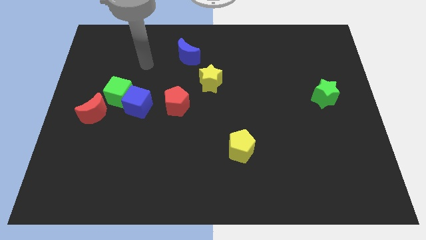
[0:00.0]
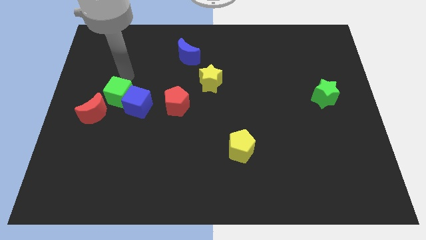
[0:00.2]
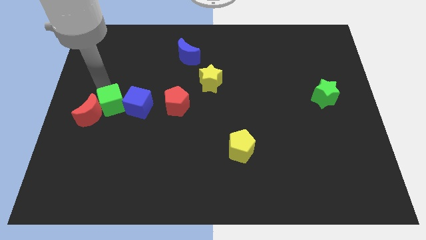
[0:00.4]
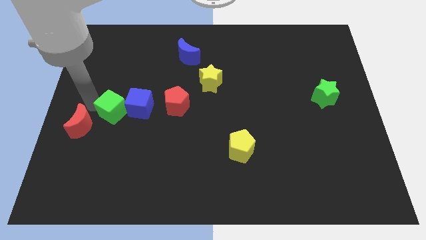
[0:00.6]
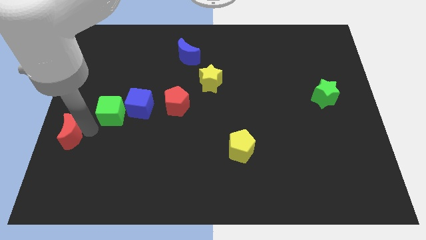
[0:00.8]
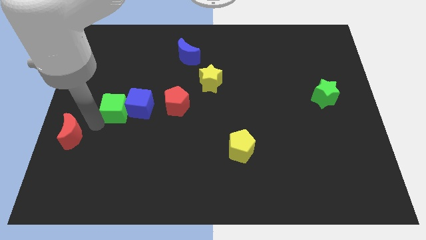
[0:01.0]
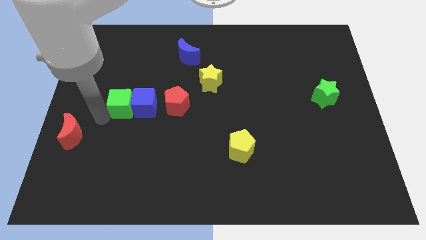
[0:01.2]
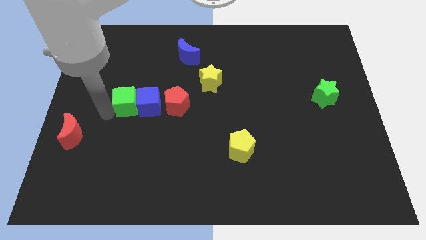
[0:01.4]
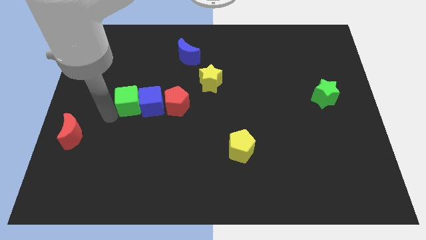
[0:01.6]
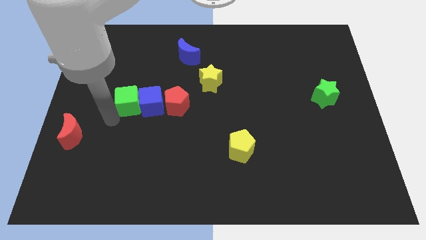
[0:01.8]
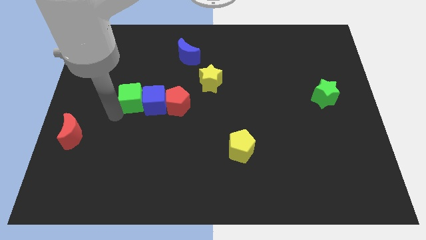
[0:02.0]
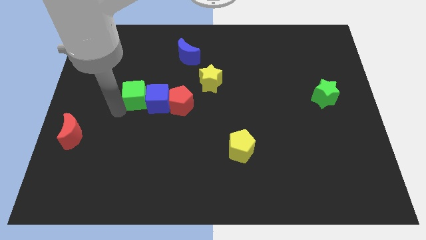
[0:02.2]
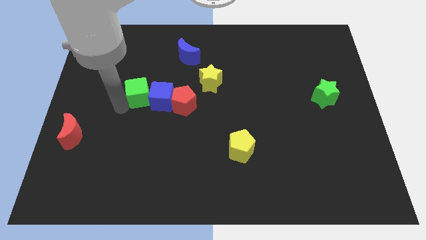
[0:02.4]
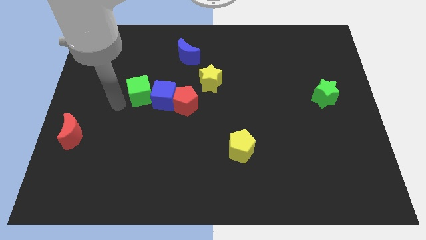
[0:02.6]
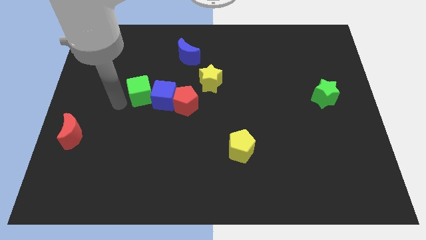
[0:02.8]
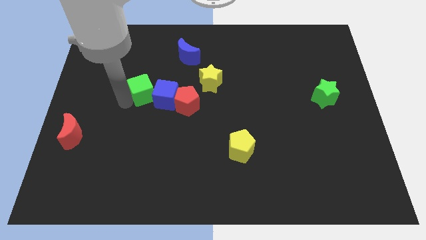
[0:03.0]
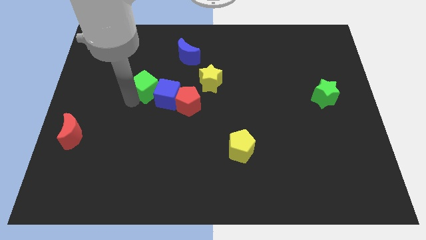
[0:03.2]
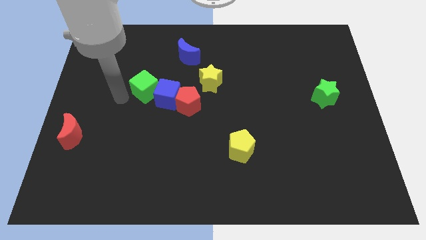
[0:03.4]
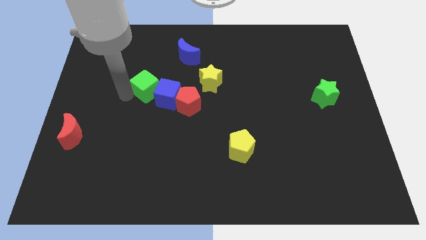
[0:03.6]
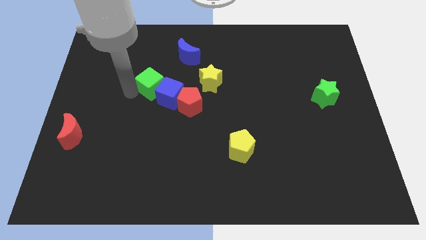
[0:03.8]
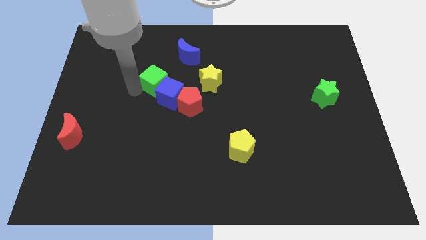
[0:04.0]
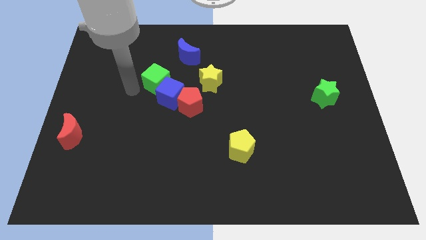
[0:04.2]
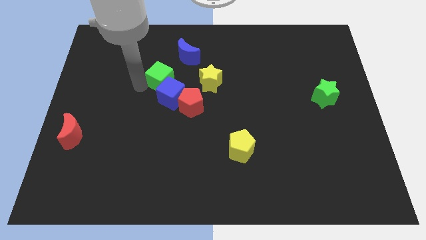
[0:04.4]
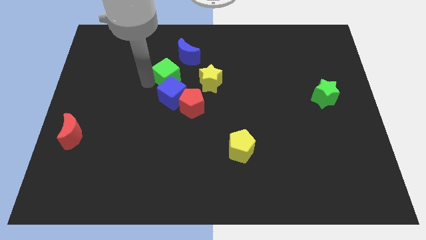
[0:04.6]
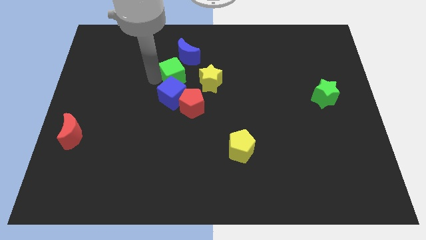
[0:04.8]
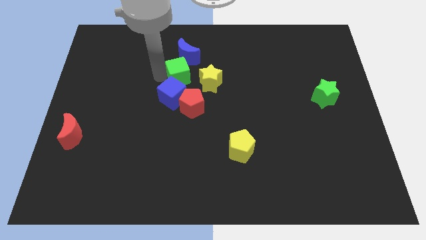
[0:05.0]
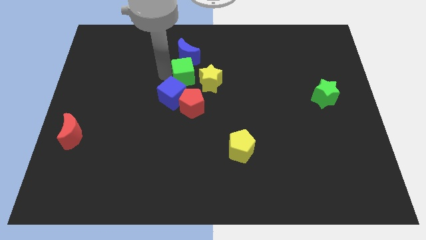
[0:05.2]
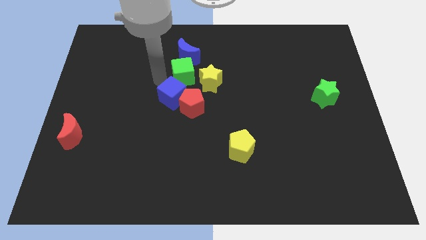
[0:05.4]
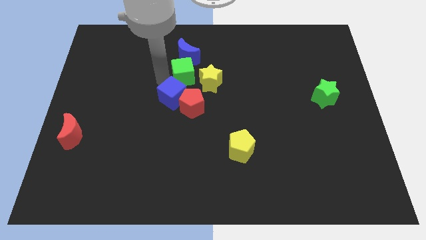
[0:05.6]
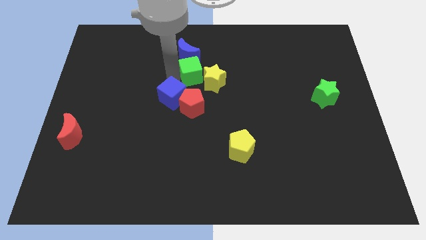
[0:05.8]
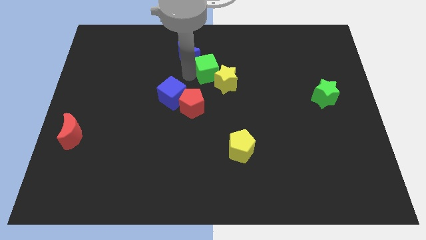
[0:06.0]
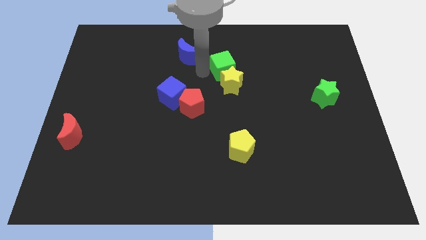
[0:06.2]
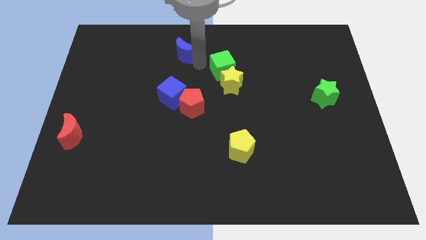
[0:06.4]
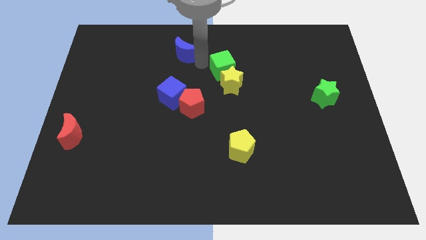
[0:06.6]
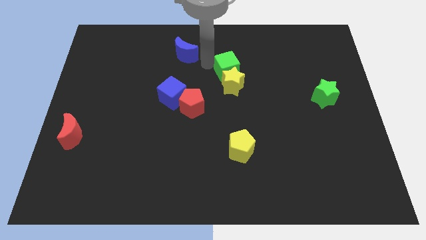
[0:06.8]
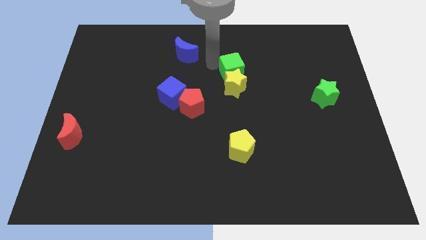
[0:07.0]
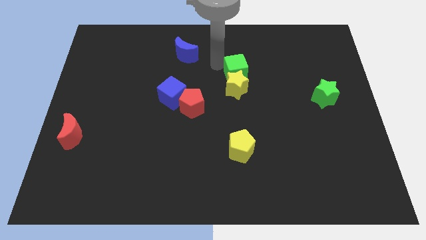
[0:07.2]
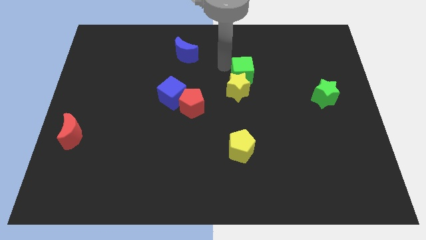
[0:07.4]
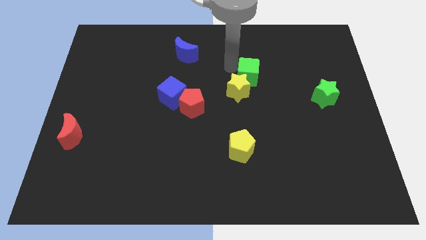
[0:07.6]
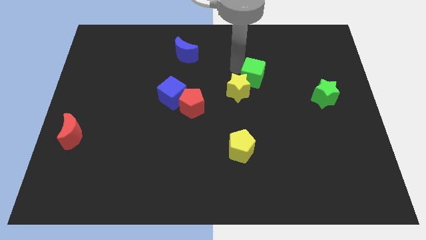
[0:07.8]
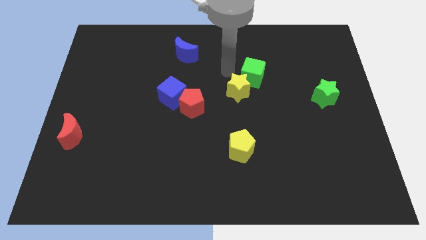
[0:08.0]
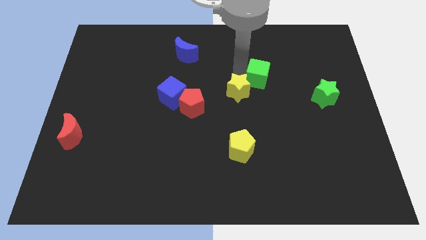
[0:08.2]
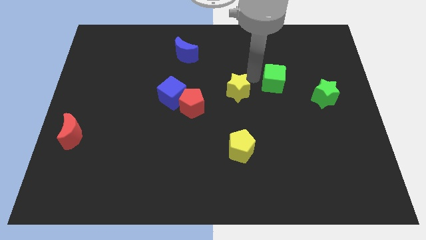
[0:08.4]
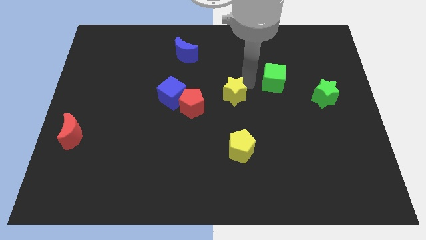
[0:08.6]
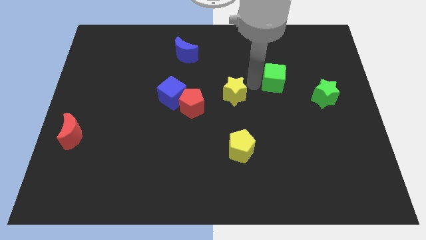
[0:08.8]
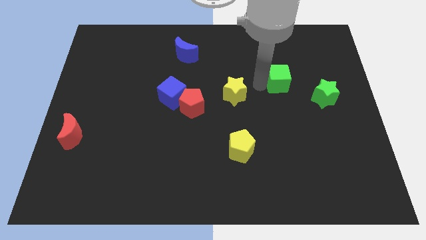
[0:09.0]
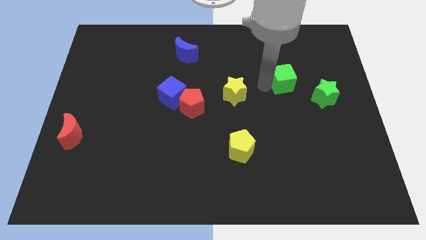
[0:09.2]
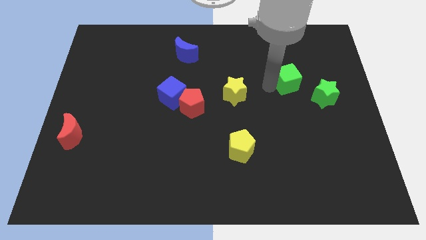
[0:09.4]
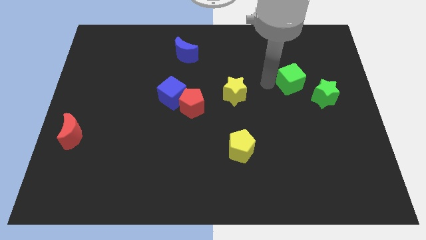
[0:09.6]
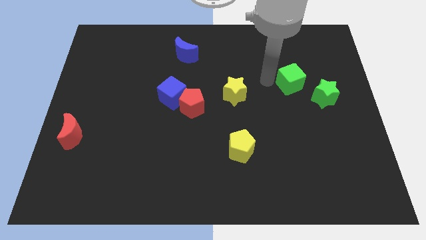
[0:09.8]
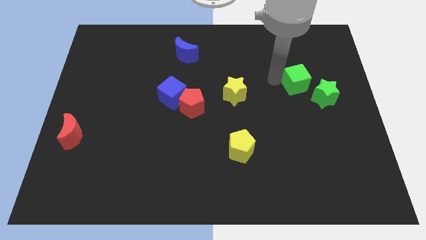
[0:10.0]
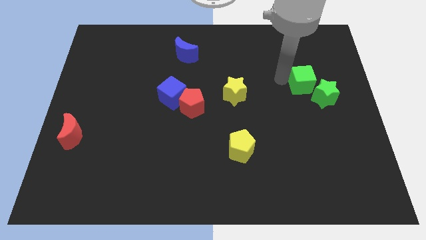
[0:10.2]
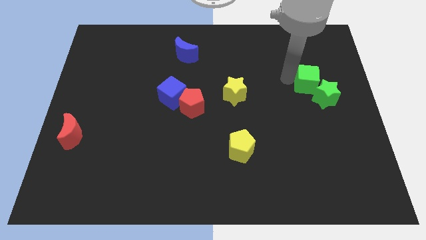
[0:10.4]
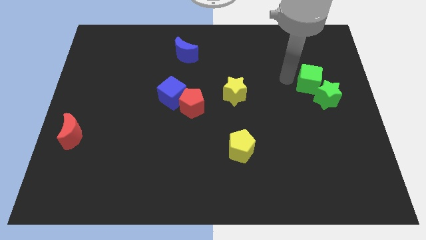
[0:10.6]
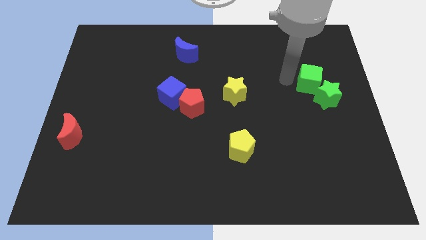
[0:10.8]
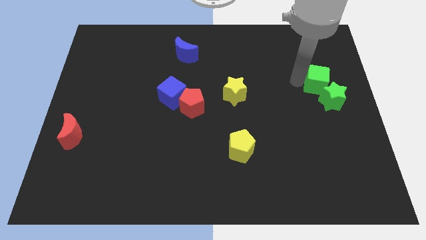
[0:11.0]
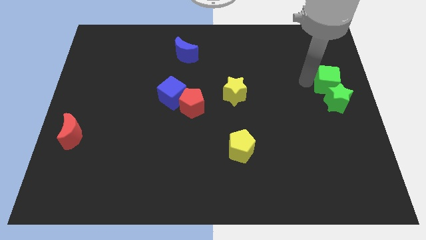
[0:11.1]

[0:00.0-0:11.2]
put the green cube to the right side

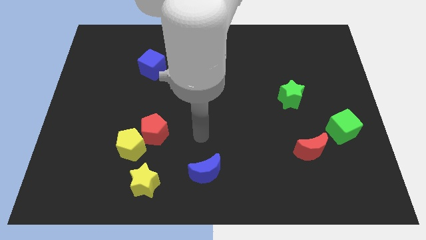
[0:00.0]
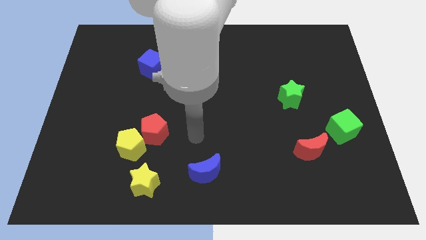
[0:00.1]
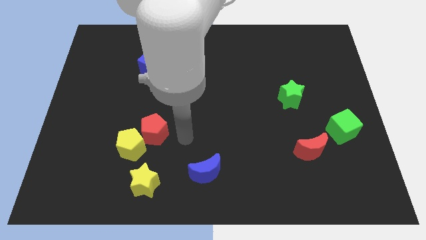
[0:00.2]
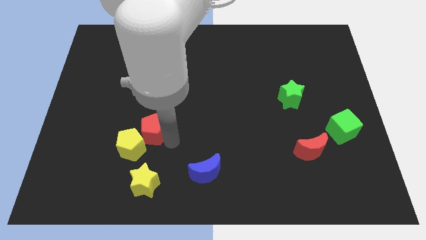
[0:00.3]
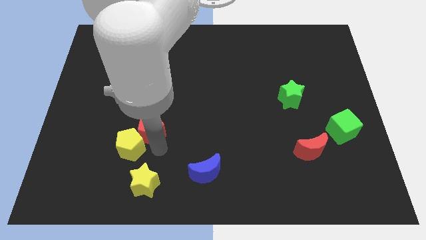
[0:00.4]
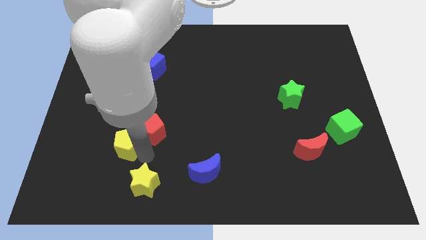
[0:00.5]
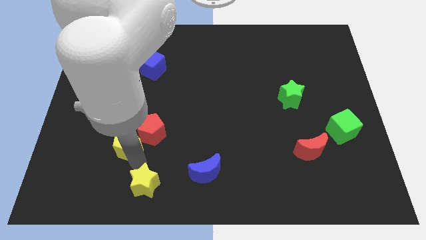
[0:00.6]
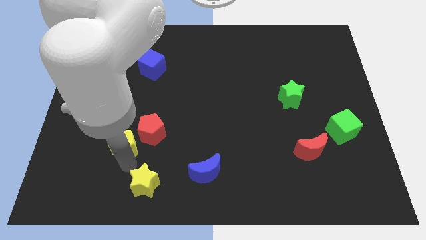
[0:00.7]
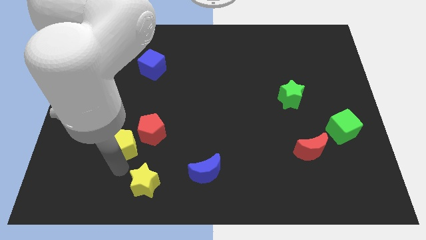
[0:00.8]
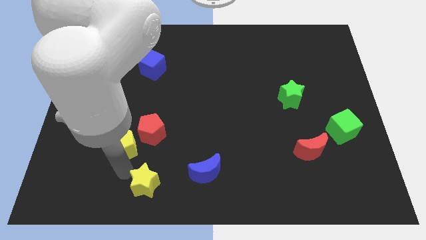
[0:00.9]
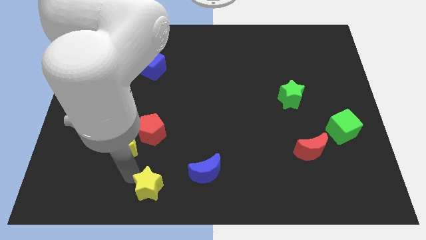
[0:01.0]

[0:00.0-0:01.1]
move the yellow star to the bottom side
